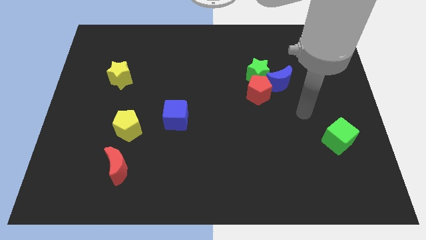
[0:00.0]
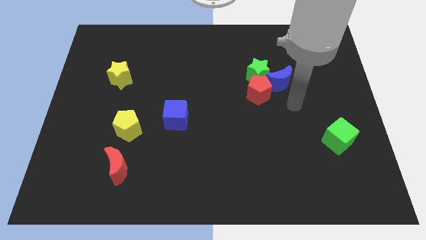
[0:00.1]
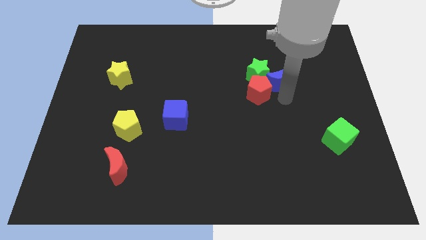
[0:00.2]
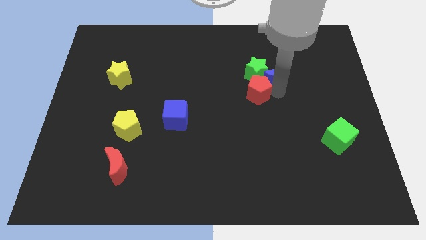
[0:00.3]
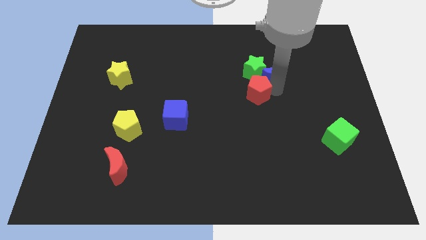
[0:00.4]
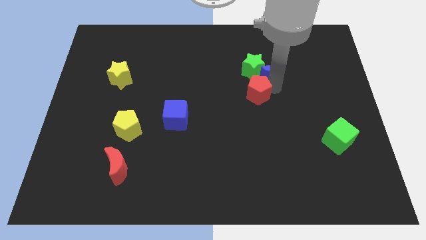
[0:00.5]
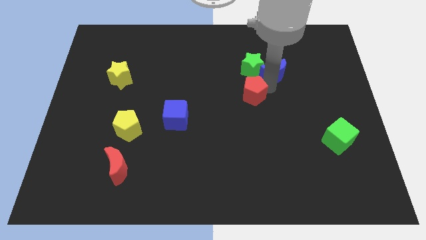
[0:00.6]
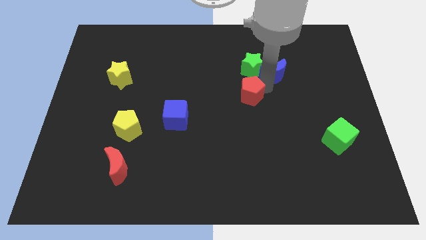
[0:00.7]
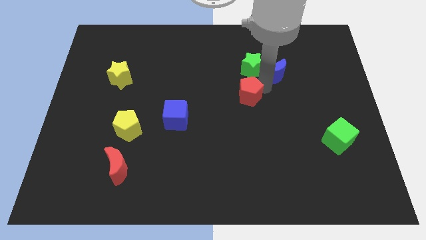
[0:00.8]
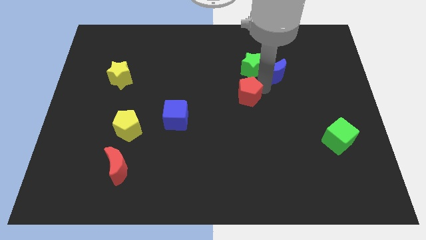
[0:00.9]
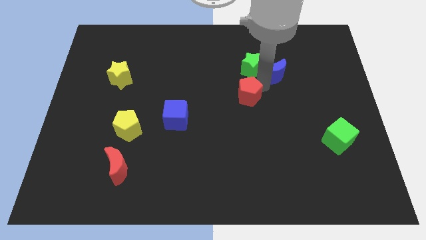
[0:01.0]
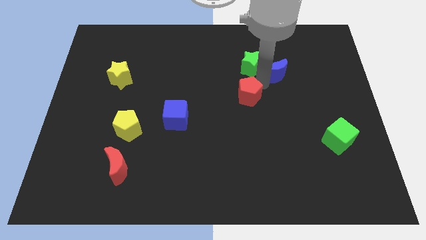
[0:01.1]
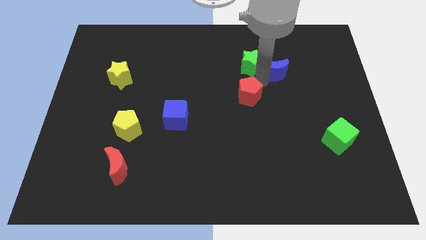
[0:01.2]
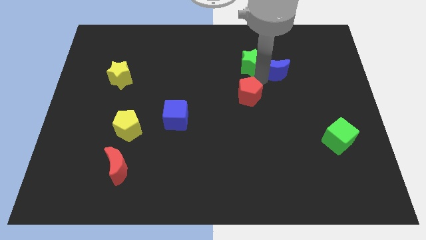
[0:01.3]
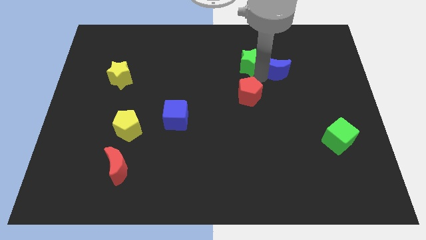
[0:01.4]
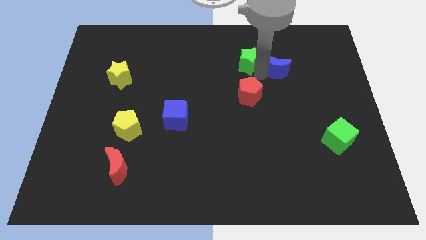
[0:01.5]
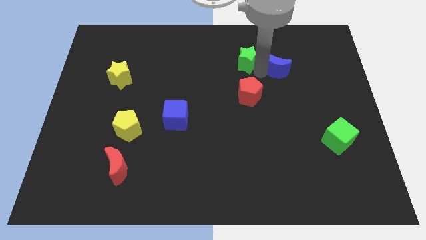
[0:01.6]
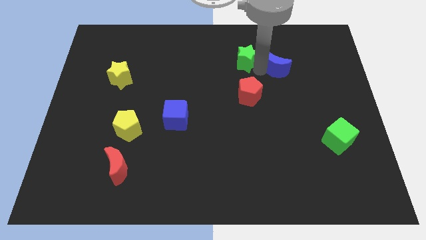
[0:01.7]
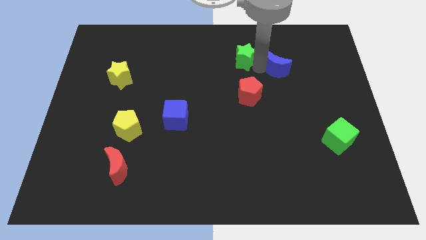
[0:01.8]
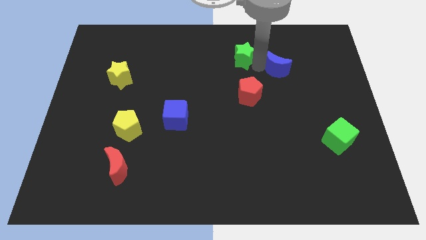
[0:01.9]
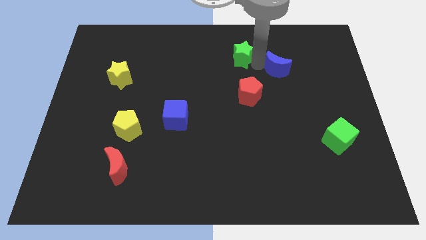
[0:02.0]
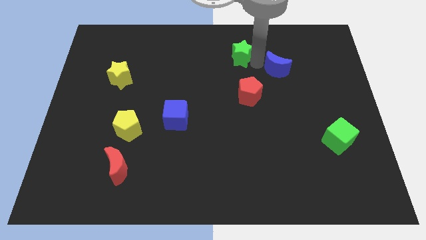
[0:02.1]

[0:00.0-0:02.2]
separate the green star from the blue moon and red pentagon

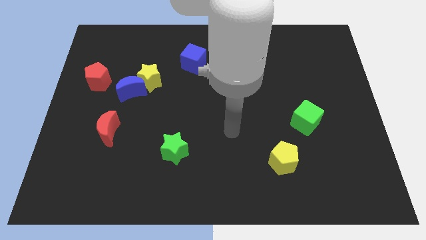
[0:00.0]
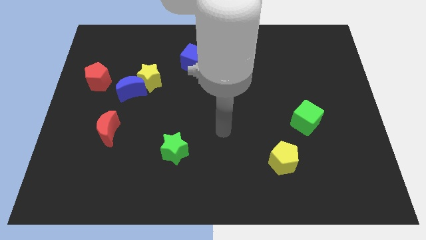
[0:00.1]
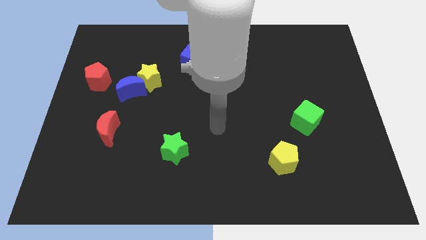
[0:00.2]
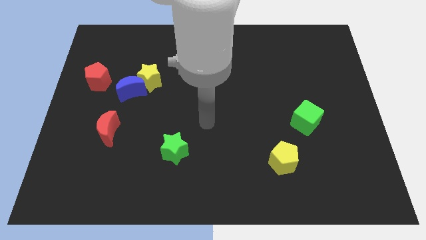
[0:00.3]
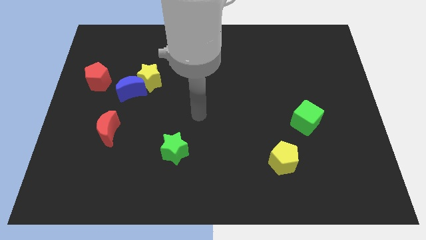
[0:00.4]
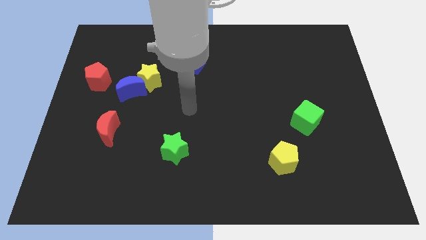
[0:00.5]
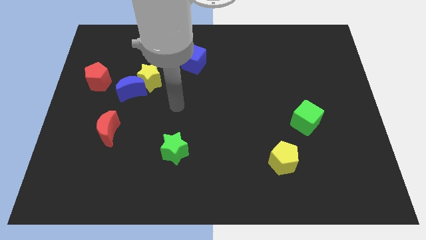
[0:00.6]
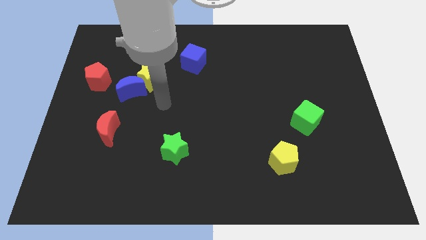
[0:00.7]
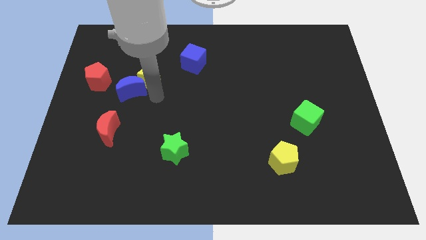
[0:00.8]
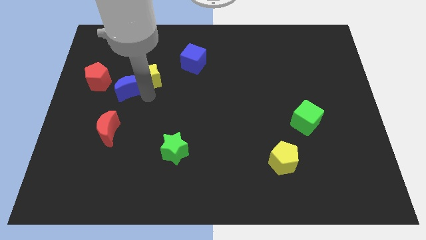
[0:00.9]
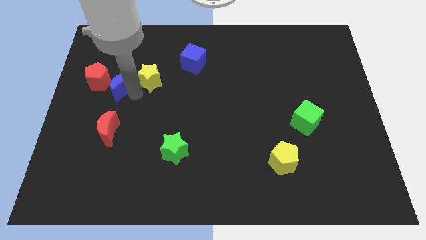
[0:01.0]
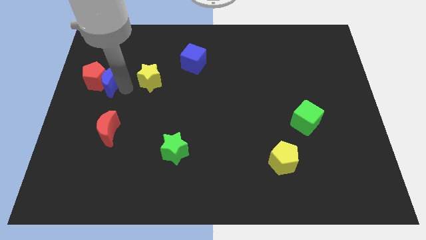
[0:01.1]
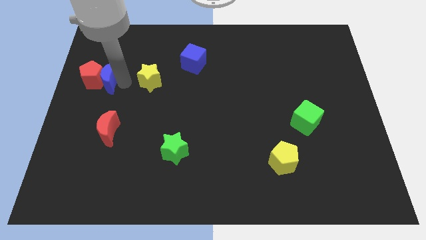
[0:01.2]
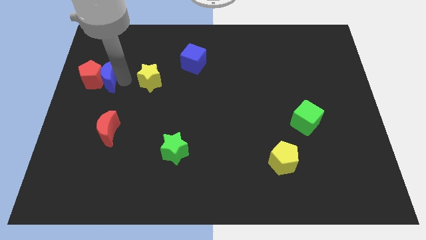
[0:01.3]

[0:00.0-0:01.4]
pull the yellow star apart from the blue moon

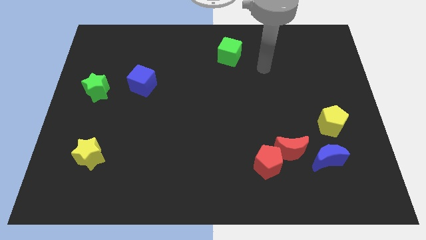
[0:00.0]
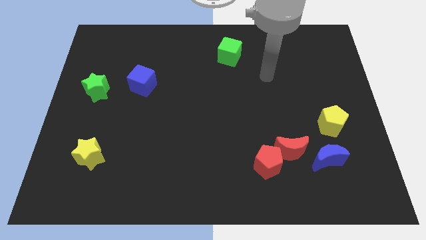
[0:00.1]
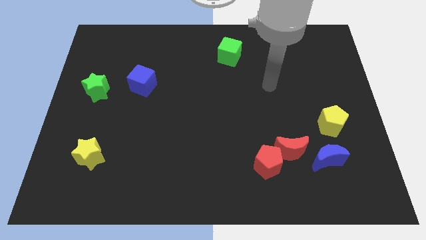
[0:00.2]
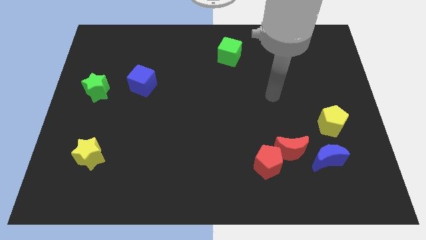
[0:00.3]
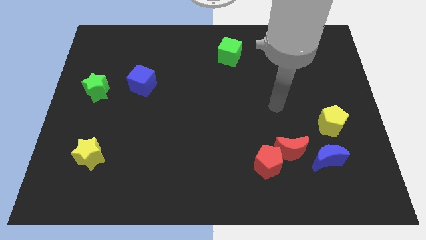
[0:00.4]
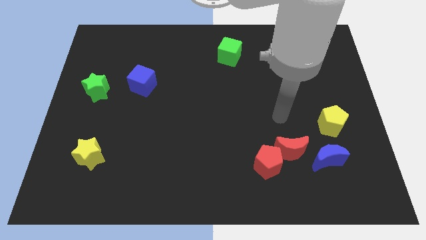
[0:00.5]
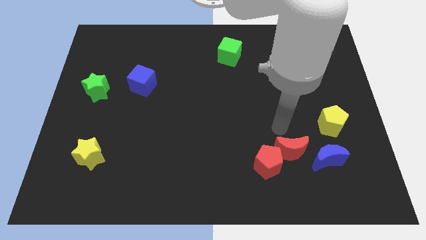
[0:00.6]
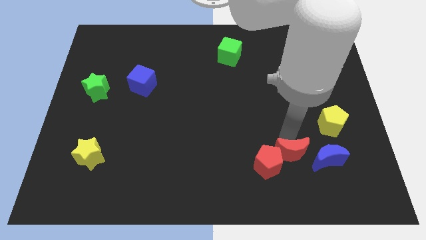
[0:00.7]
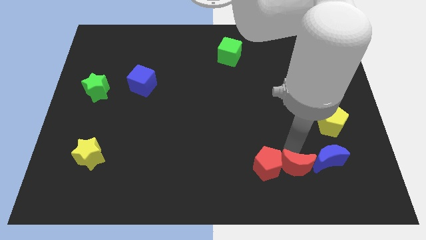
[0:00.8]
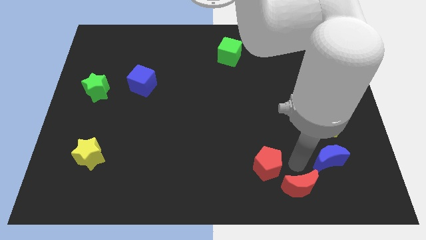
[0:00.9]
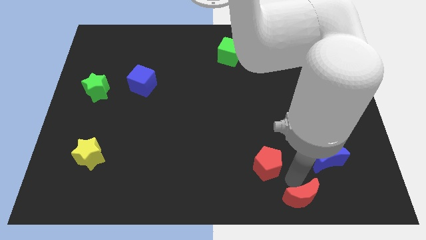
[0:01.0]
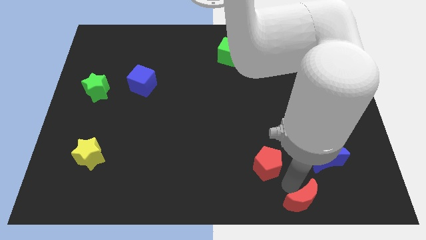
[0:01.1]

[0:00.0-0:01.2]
separate the red pentagon from the red moon

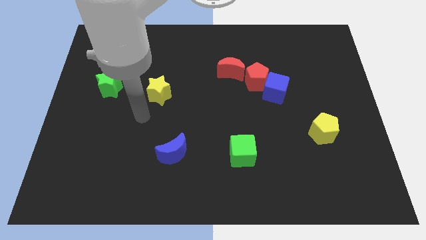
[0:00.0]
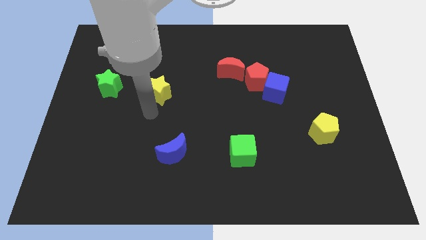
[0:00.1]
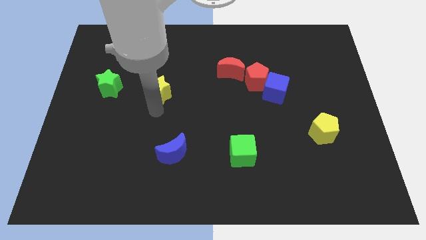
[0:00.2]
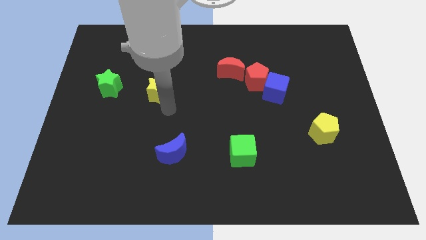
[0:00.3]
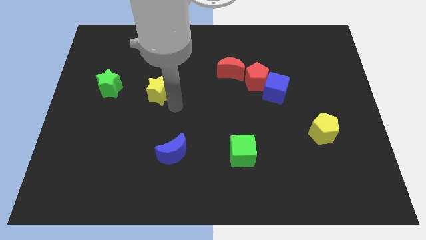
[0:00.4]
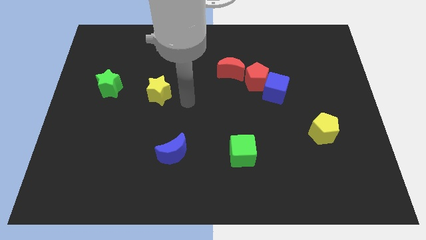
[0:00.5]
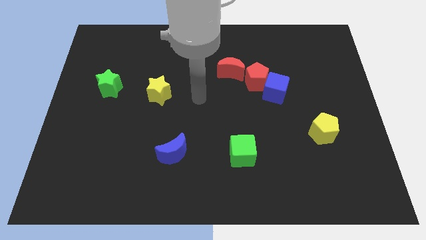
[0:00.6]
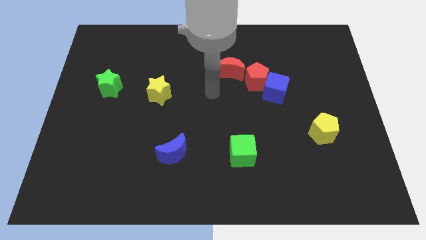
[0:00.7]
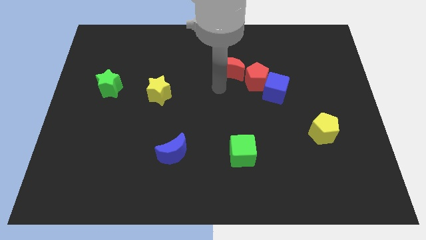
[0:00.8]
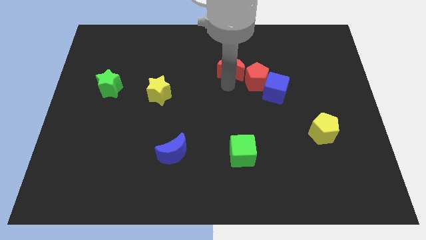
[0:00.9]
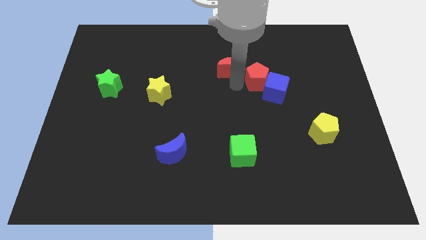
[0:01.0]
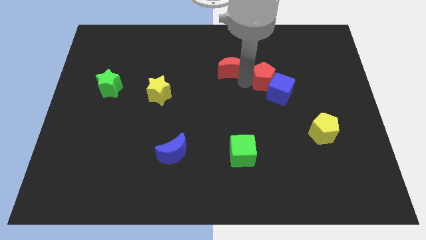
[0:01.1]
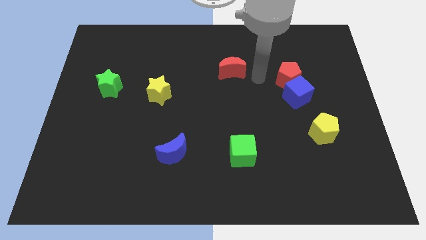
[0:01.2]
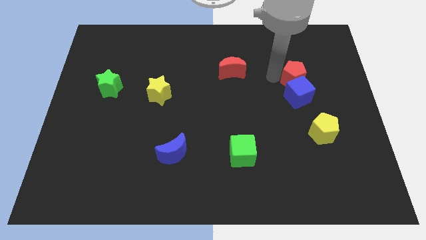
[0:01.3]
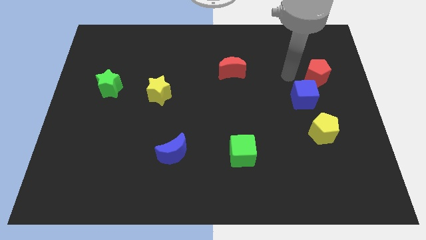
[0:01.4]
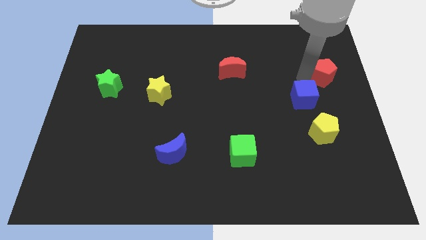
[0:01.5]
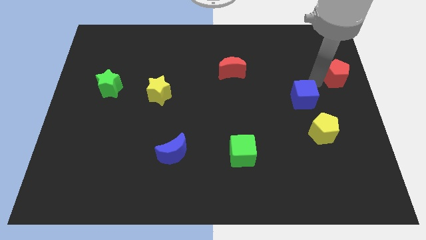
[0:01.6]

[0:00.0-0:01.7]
pull the blue cube apart from the red pentagon

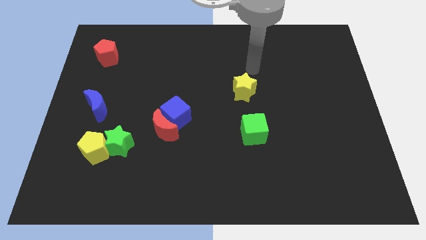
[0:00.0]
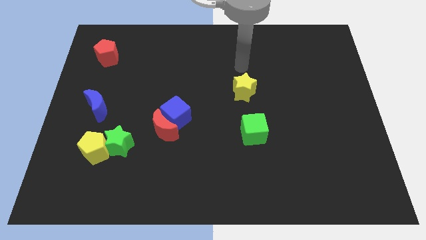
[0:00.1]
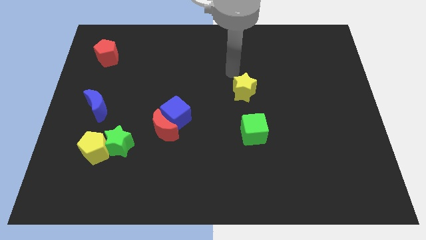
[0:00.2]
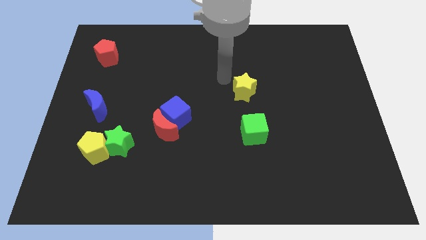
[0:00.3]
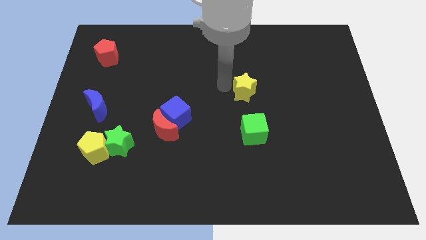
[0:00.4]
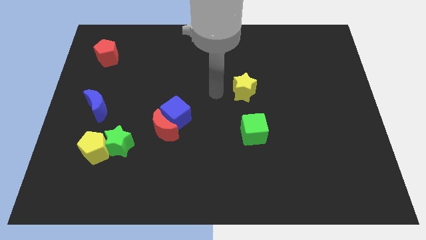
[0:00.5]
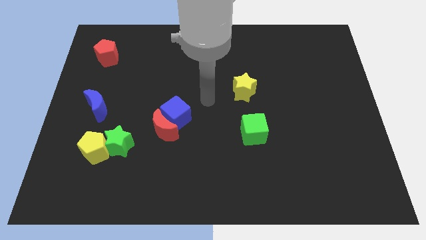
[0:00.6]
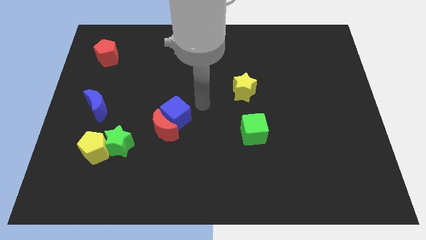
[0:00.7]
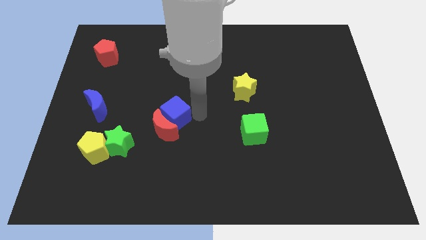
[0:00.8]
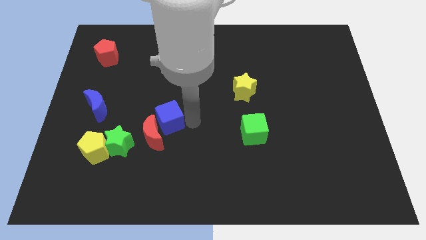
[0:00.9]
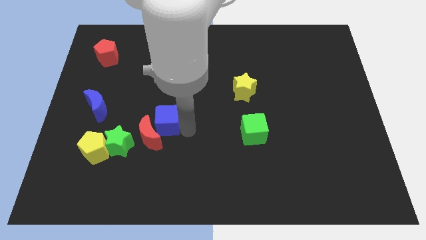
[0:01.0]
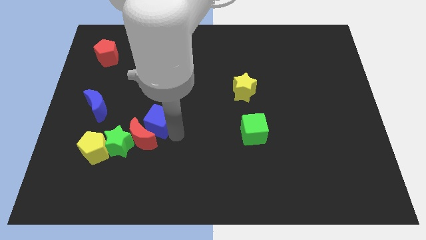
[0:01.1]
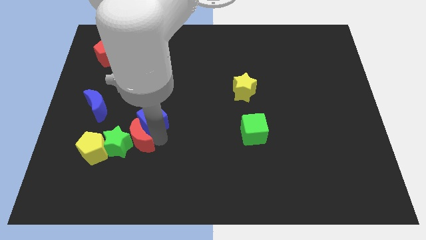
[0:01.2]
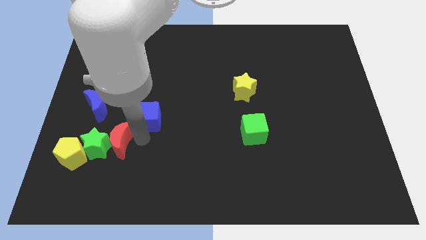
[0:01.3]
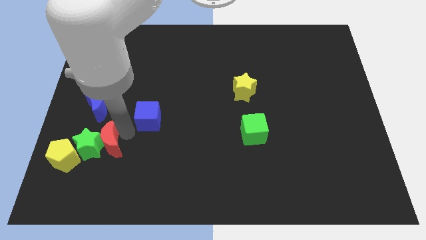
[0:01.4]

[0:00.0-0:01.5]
move the blue cube away from the red moon

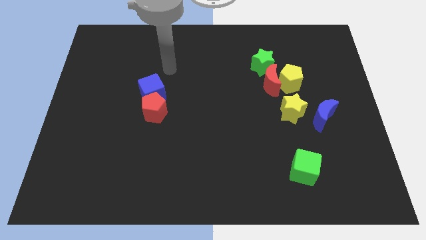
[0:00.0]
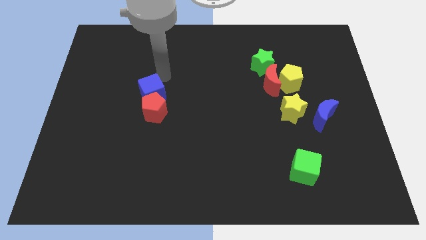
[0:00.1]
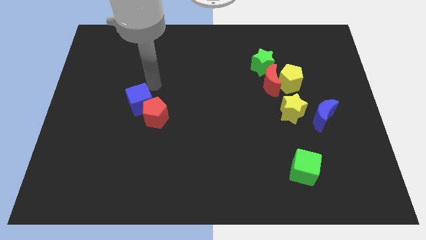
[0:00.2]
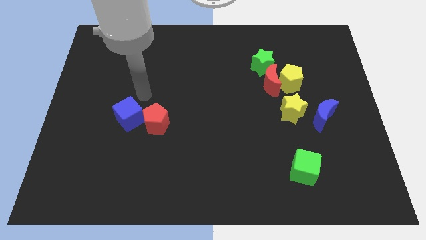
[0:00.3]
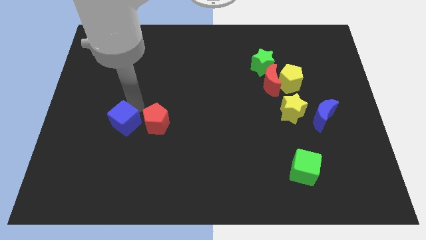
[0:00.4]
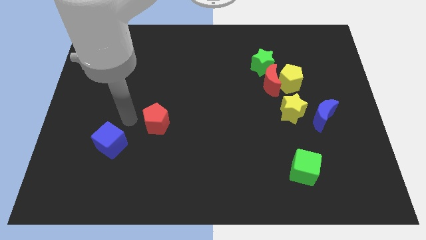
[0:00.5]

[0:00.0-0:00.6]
pull the red pentagon apart from the blue cube

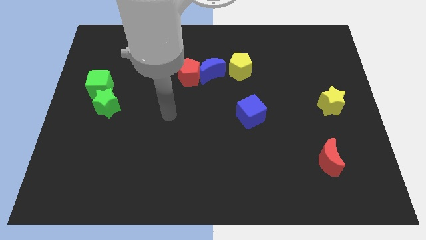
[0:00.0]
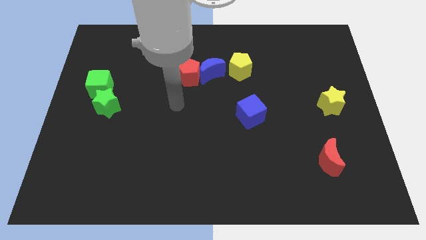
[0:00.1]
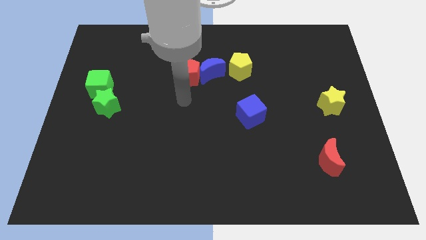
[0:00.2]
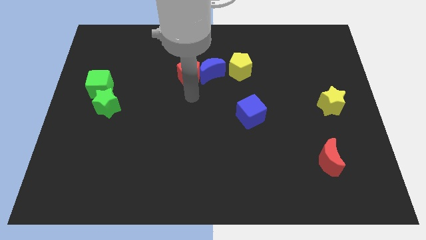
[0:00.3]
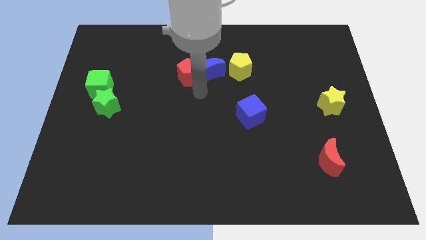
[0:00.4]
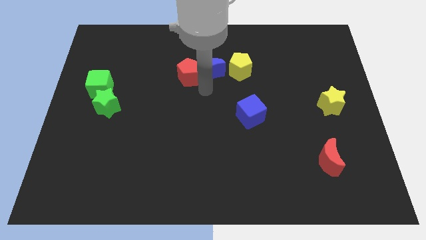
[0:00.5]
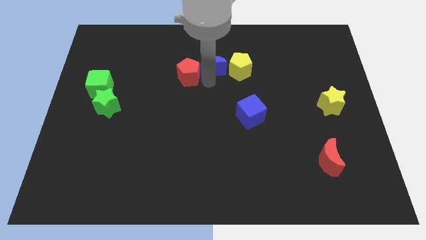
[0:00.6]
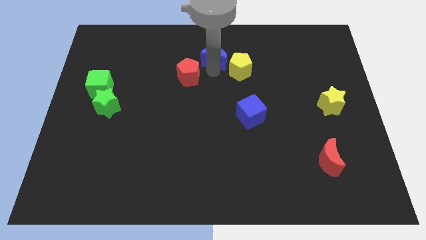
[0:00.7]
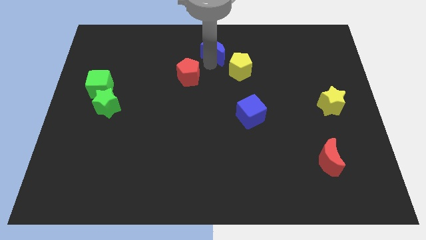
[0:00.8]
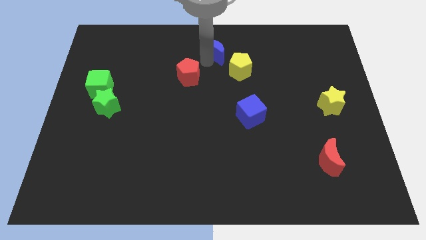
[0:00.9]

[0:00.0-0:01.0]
move the red pentagon away from the blue moon
